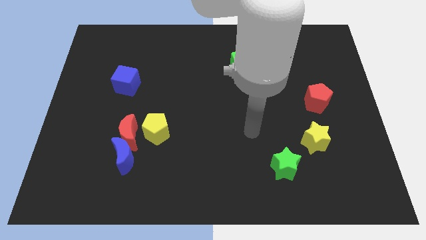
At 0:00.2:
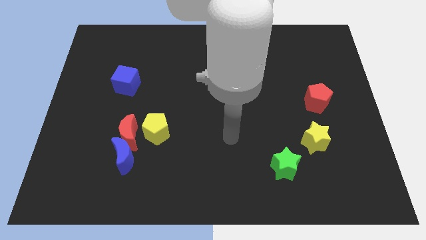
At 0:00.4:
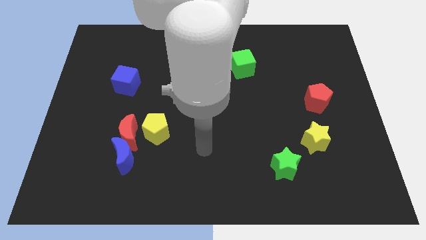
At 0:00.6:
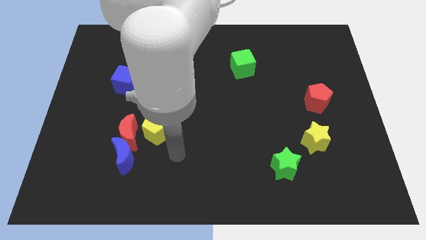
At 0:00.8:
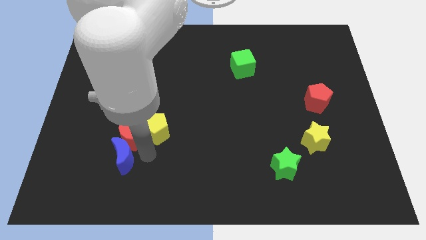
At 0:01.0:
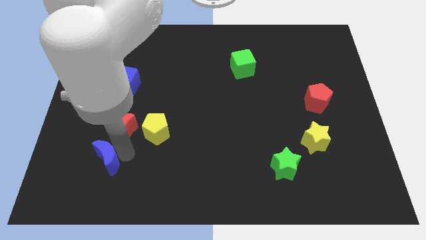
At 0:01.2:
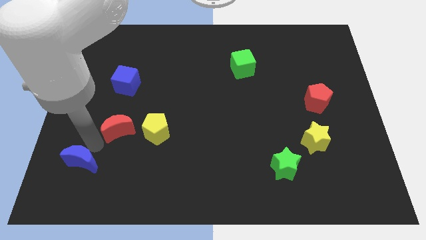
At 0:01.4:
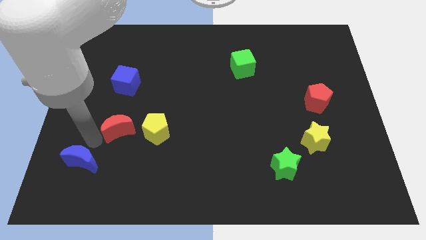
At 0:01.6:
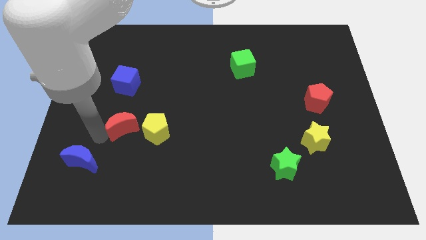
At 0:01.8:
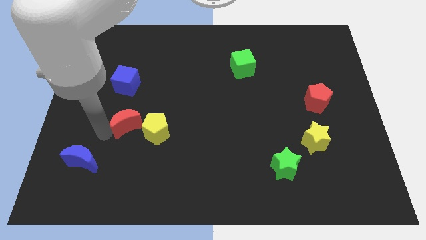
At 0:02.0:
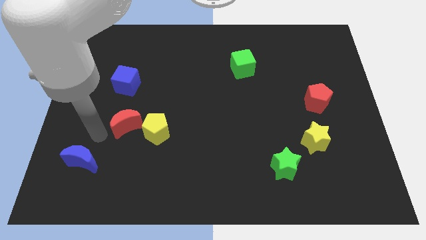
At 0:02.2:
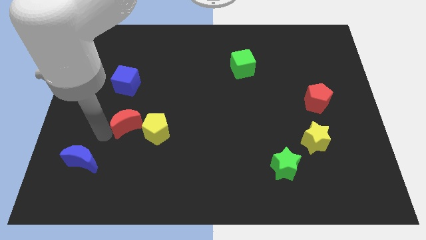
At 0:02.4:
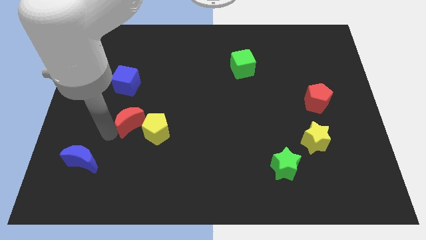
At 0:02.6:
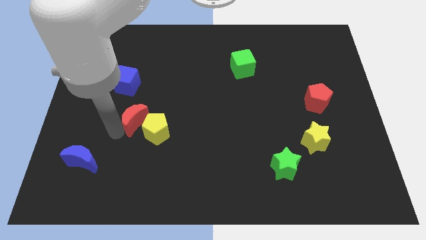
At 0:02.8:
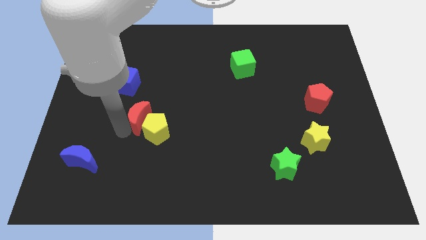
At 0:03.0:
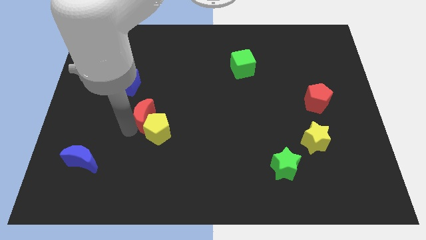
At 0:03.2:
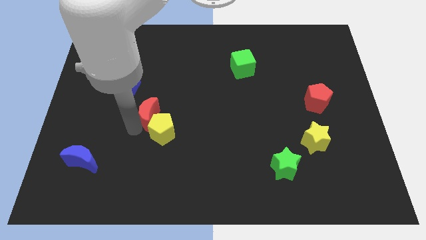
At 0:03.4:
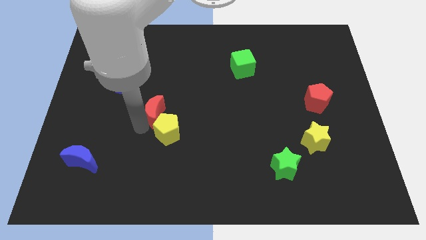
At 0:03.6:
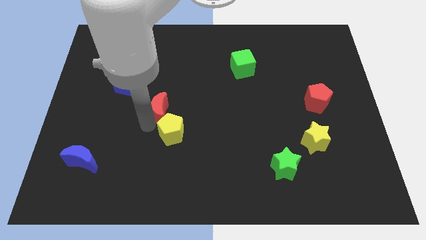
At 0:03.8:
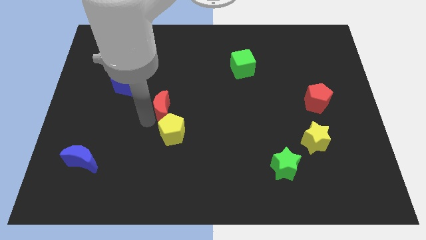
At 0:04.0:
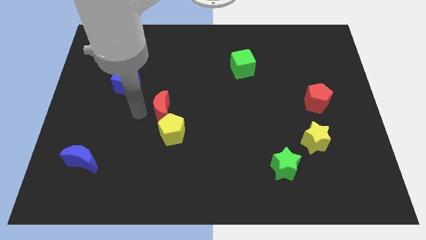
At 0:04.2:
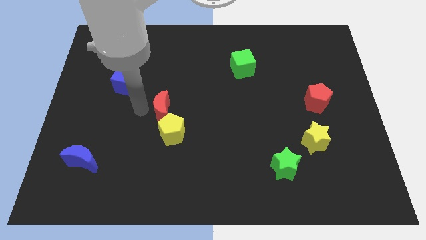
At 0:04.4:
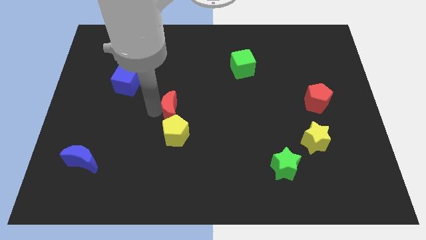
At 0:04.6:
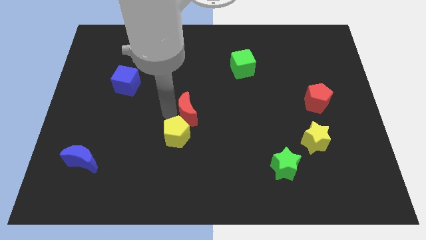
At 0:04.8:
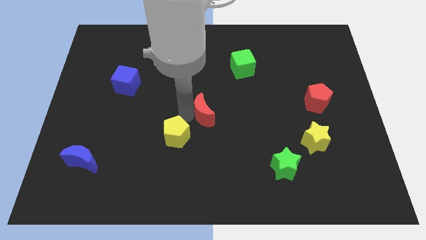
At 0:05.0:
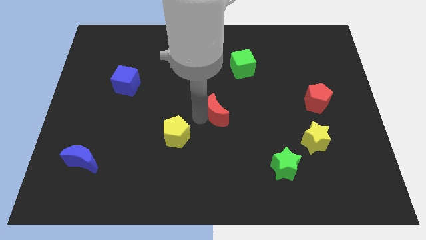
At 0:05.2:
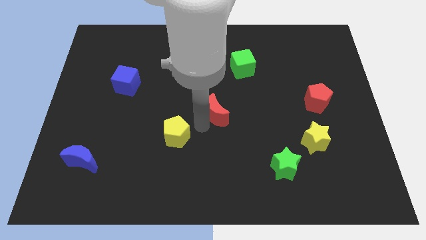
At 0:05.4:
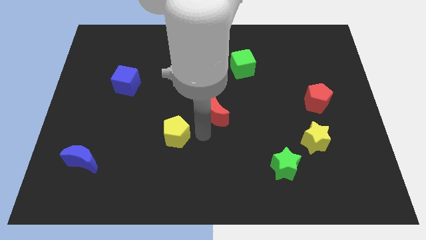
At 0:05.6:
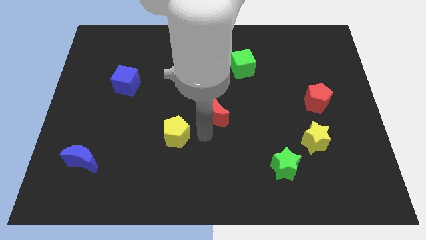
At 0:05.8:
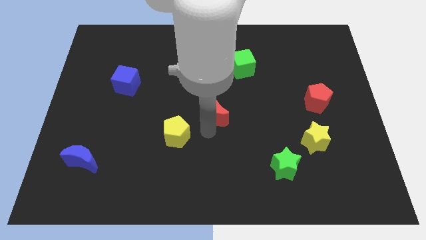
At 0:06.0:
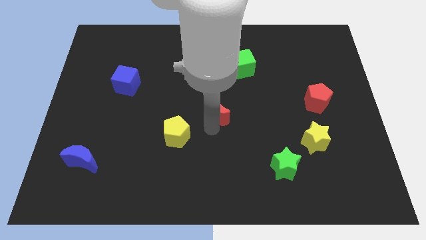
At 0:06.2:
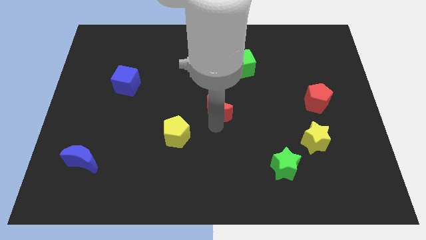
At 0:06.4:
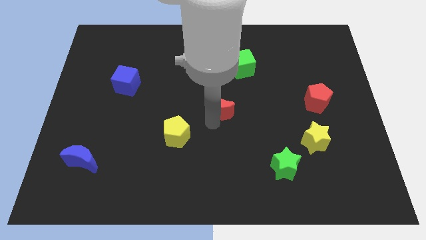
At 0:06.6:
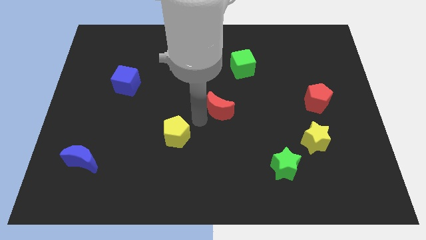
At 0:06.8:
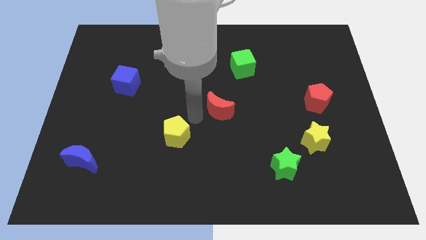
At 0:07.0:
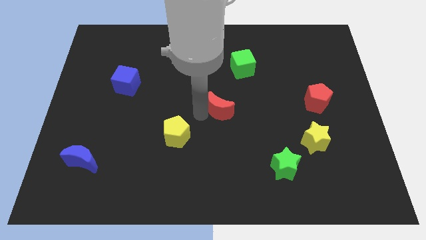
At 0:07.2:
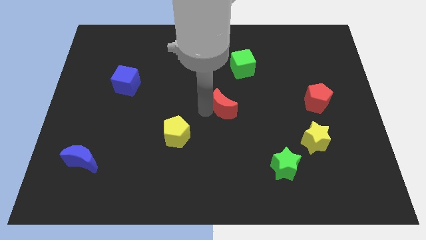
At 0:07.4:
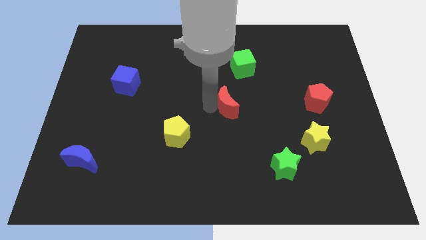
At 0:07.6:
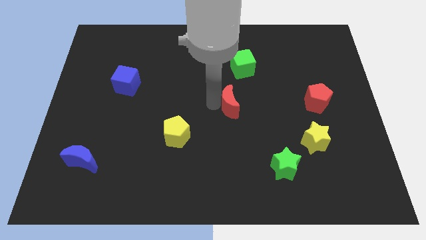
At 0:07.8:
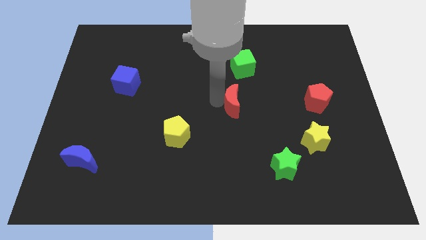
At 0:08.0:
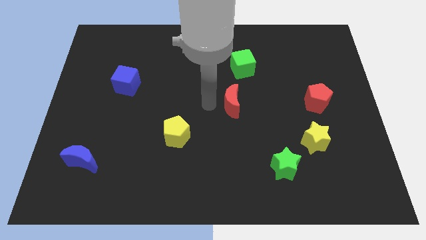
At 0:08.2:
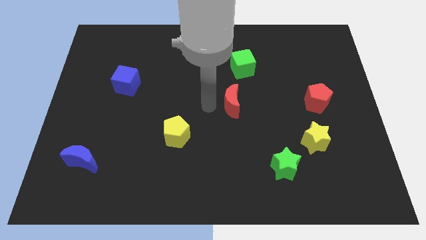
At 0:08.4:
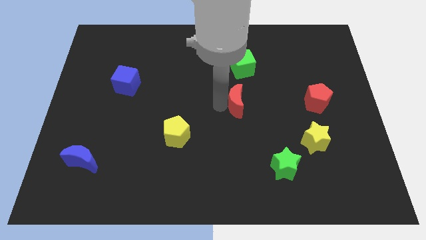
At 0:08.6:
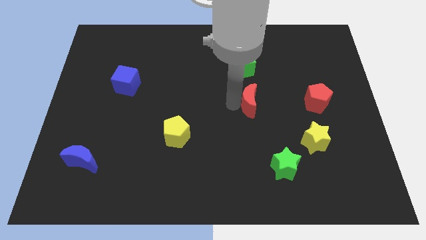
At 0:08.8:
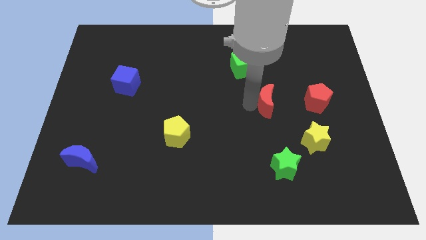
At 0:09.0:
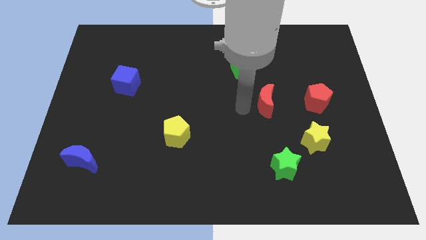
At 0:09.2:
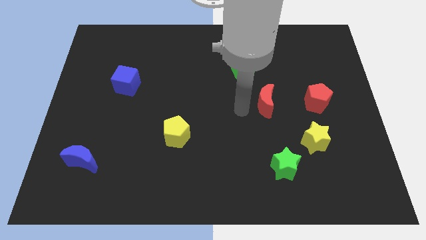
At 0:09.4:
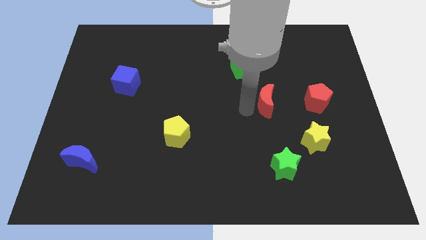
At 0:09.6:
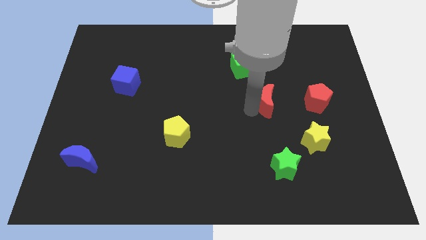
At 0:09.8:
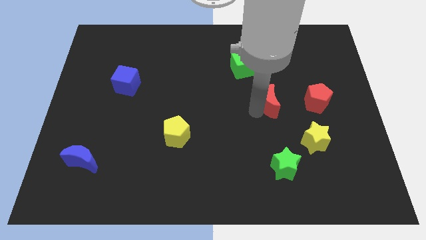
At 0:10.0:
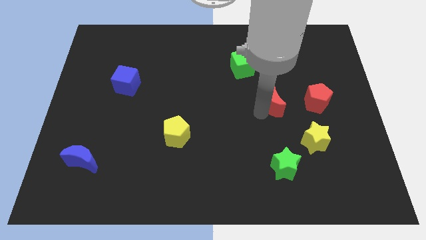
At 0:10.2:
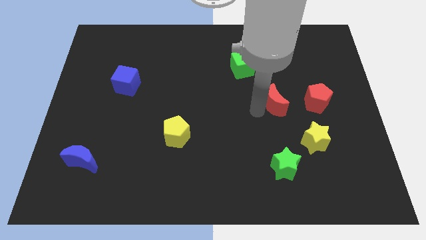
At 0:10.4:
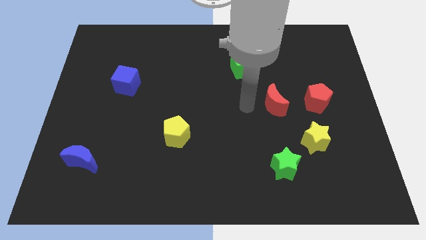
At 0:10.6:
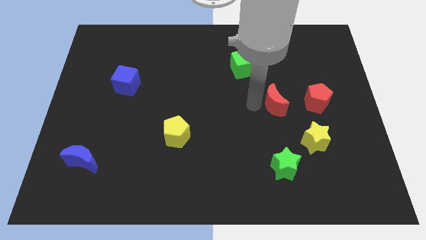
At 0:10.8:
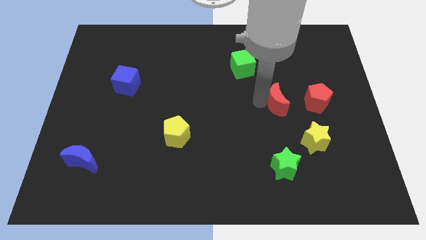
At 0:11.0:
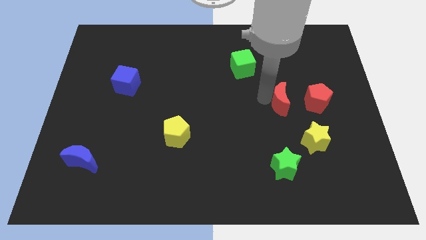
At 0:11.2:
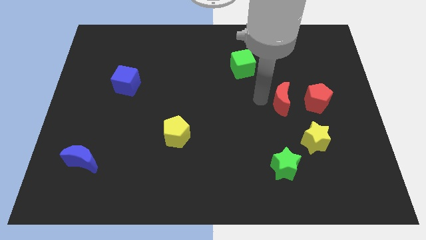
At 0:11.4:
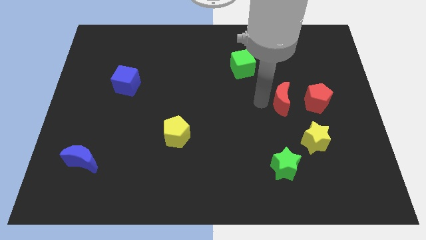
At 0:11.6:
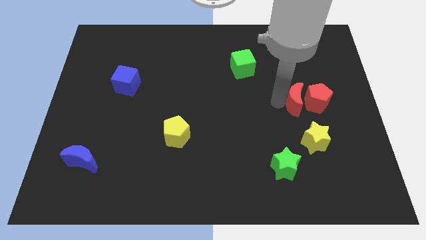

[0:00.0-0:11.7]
slide the red moon next to the red pentagon

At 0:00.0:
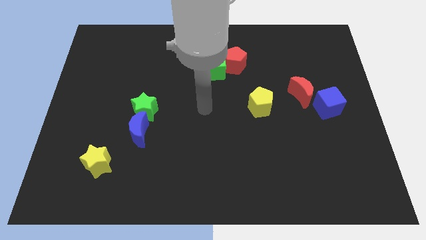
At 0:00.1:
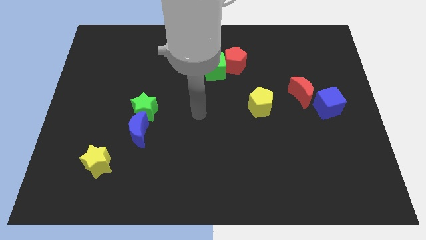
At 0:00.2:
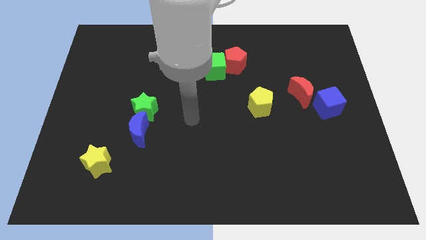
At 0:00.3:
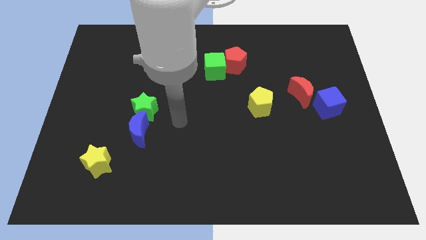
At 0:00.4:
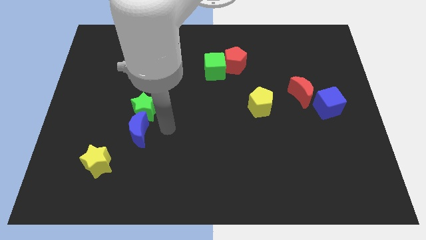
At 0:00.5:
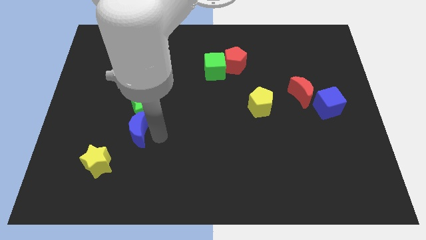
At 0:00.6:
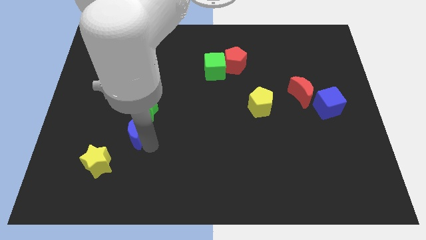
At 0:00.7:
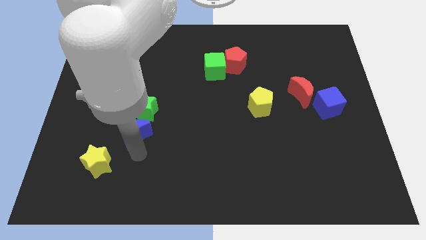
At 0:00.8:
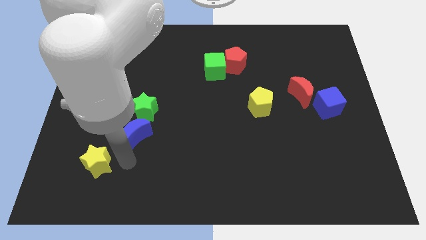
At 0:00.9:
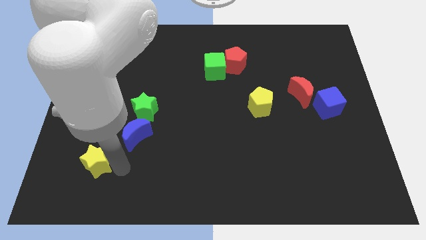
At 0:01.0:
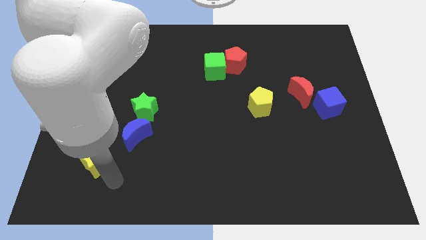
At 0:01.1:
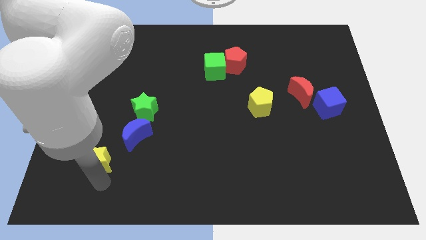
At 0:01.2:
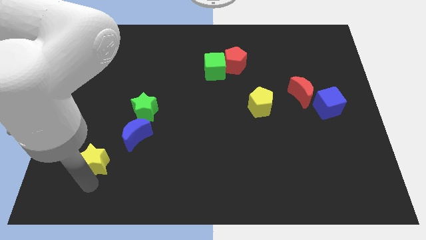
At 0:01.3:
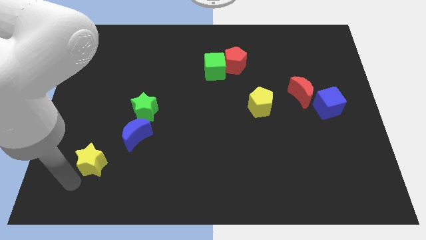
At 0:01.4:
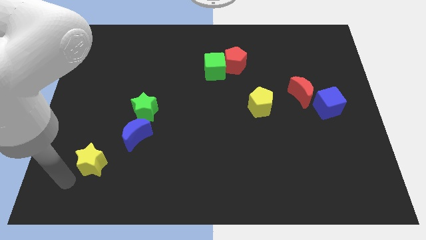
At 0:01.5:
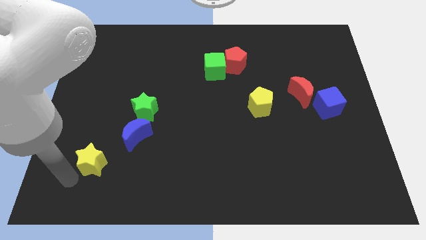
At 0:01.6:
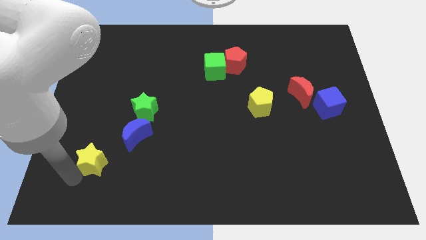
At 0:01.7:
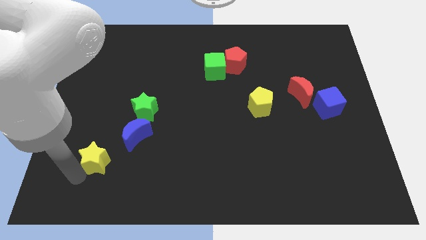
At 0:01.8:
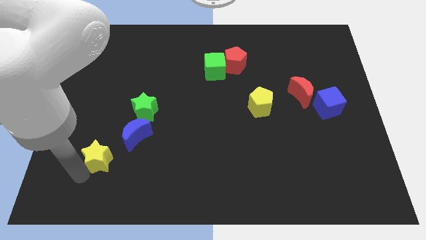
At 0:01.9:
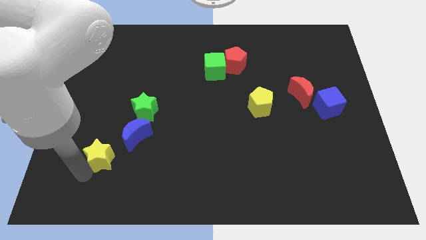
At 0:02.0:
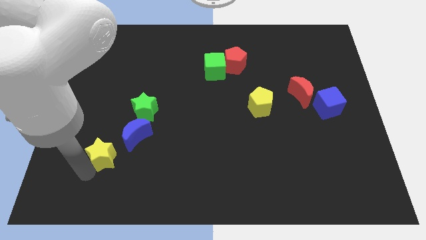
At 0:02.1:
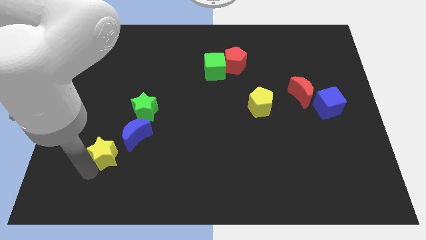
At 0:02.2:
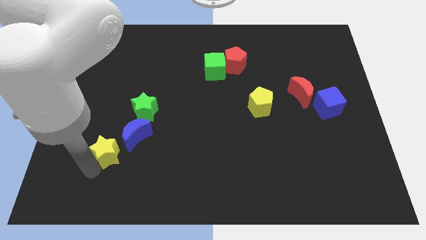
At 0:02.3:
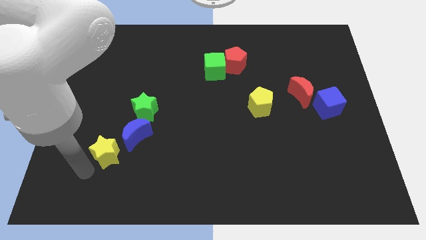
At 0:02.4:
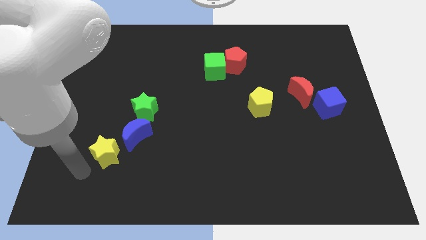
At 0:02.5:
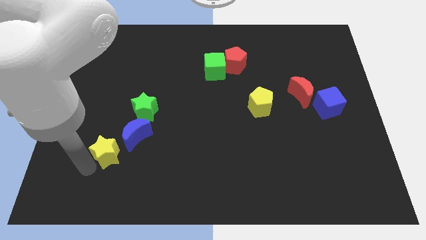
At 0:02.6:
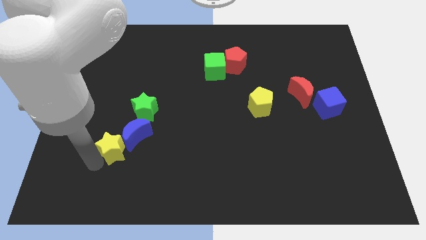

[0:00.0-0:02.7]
slide the yellow star close to the blue moon
